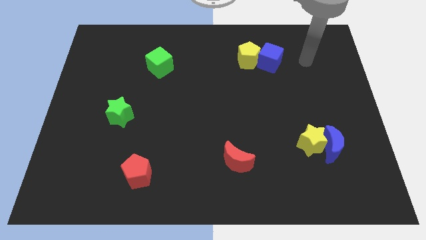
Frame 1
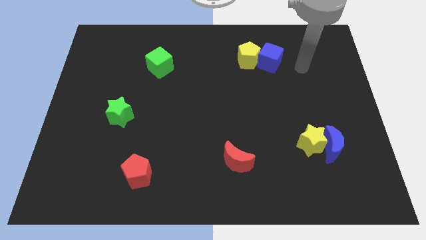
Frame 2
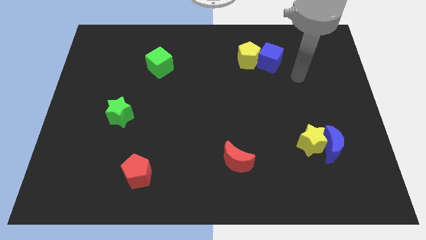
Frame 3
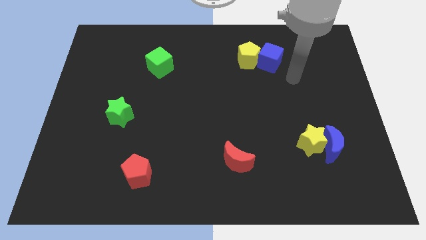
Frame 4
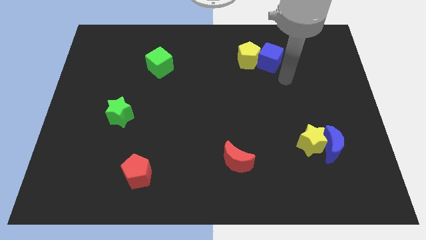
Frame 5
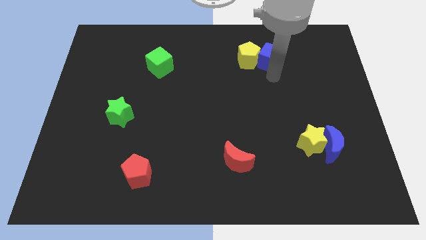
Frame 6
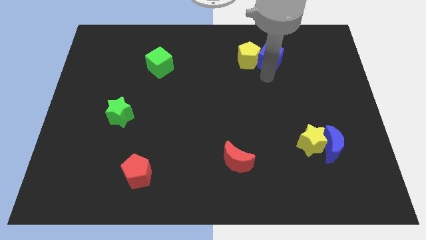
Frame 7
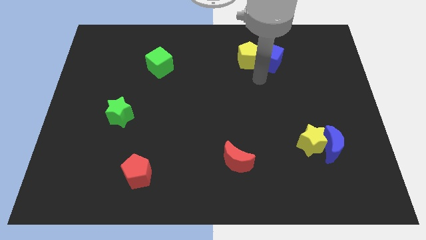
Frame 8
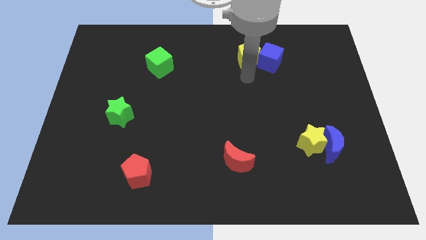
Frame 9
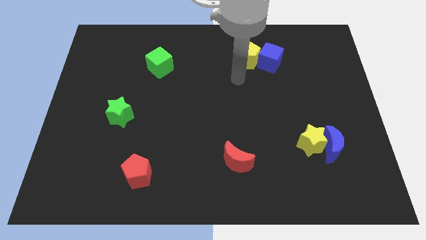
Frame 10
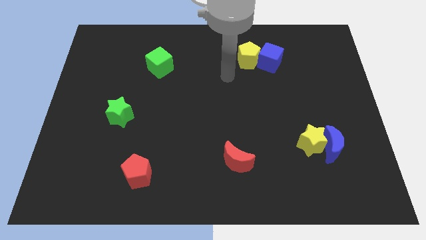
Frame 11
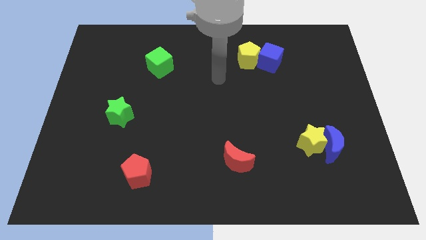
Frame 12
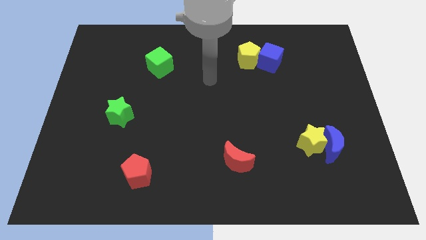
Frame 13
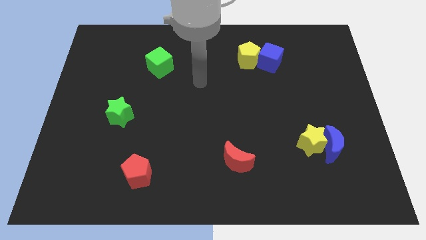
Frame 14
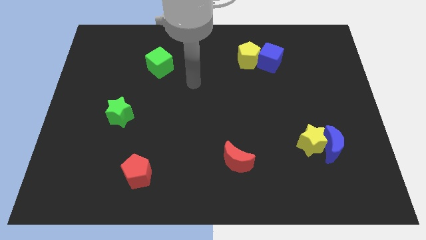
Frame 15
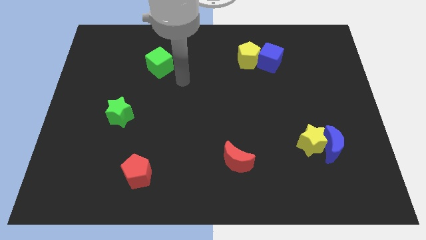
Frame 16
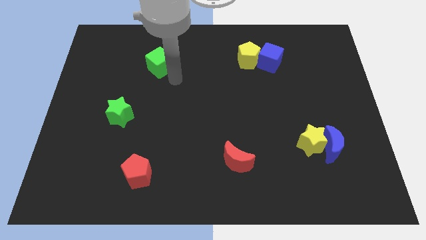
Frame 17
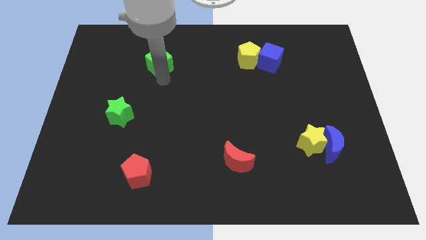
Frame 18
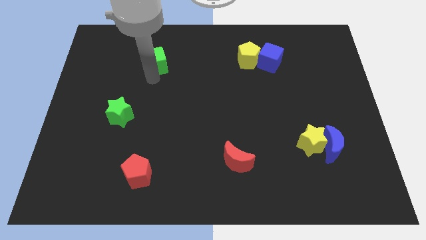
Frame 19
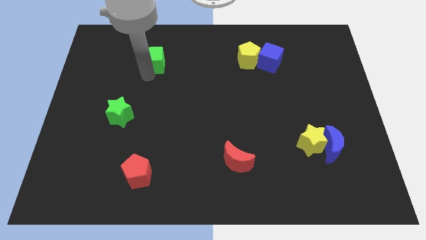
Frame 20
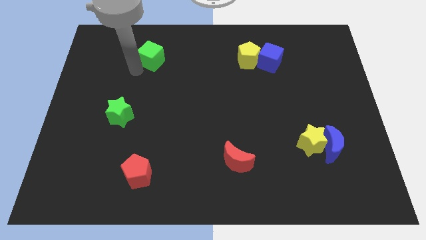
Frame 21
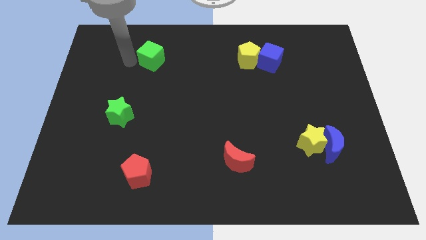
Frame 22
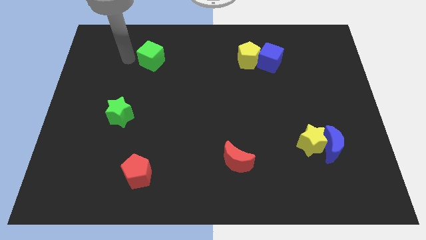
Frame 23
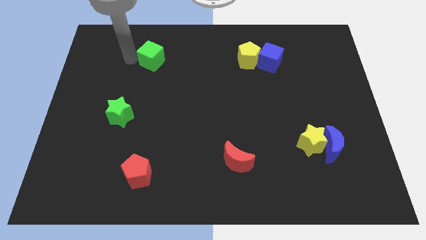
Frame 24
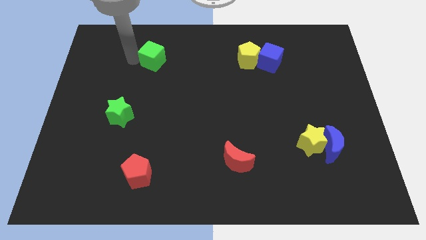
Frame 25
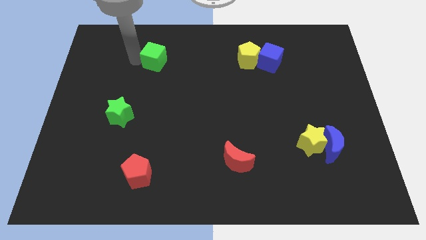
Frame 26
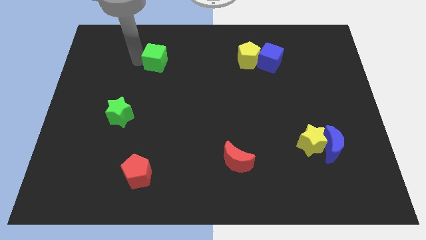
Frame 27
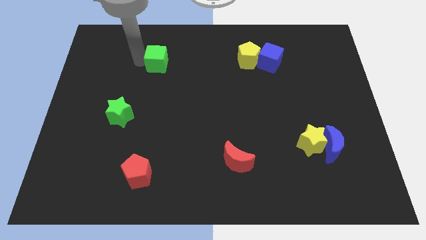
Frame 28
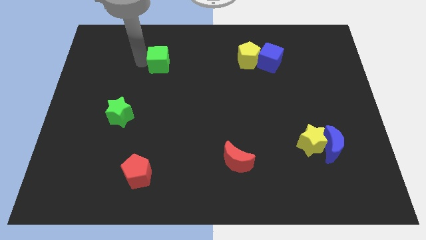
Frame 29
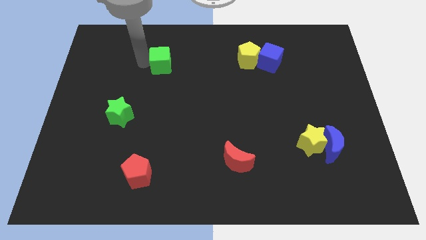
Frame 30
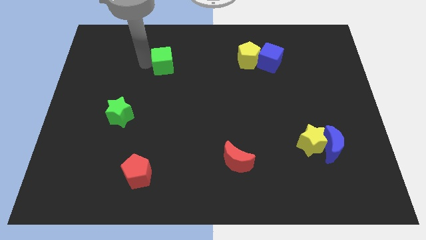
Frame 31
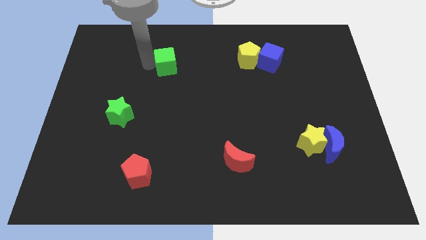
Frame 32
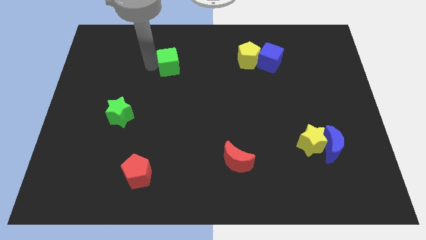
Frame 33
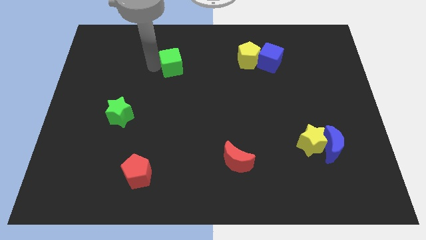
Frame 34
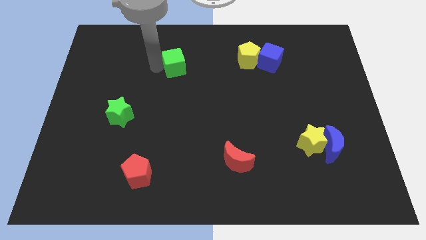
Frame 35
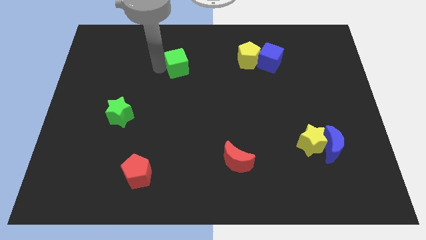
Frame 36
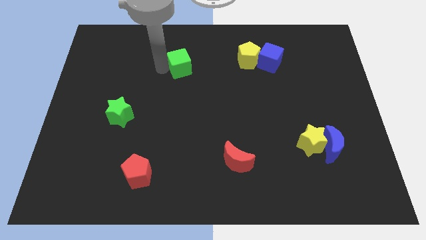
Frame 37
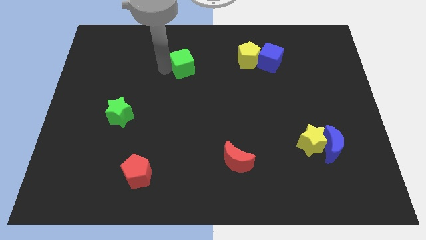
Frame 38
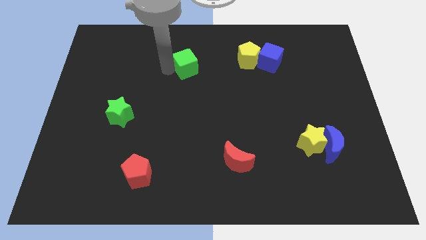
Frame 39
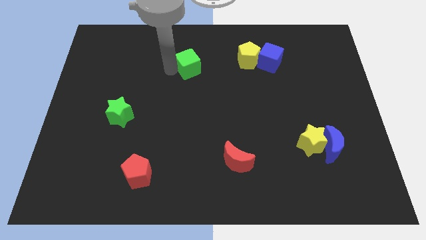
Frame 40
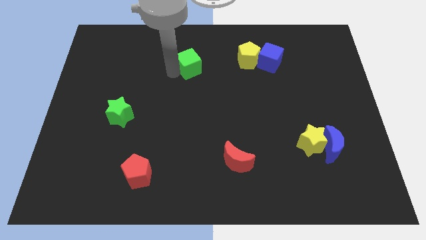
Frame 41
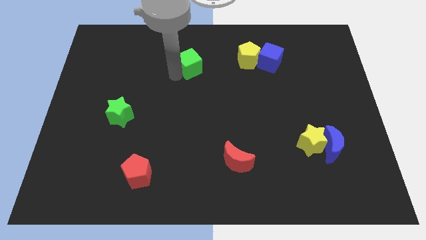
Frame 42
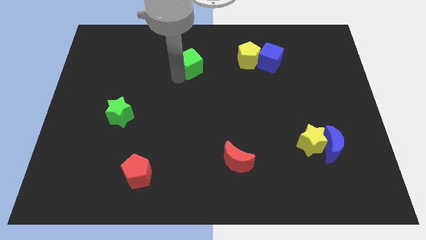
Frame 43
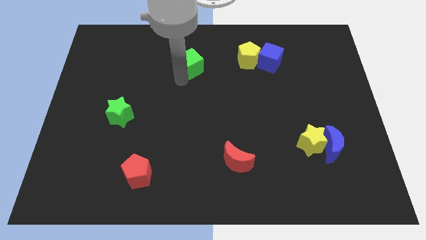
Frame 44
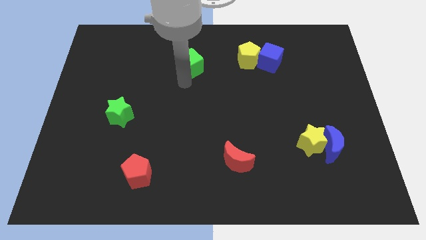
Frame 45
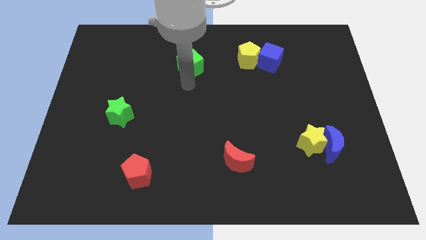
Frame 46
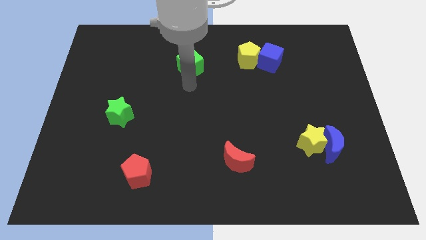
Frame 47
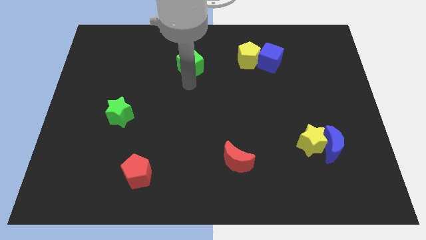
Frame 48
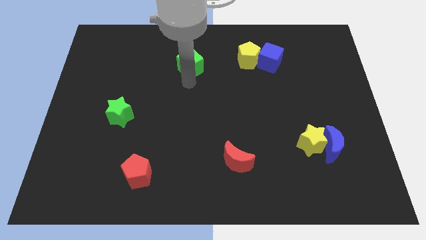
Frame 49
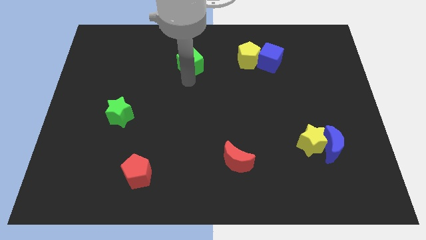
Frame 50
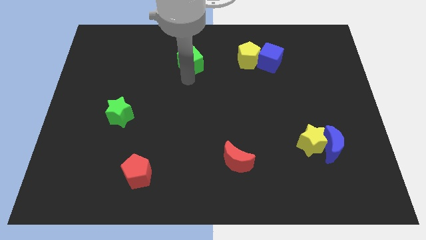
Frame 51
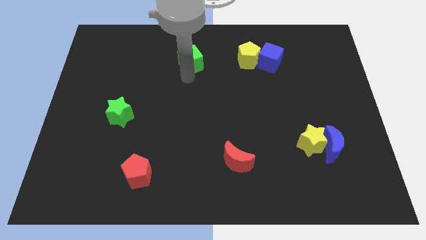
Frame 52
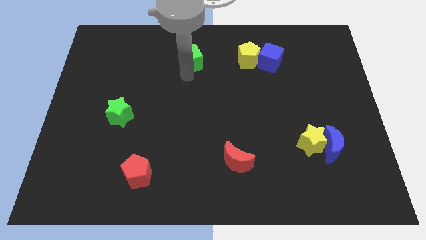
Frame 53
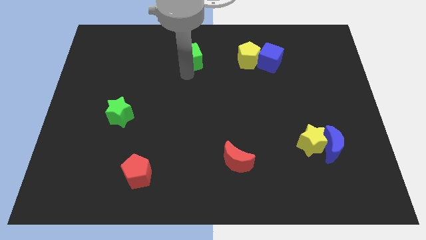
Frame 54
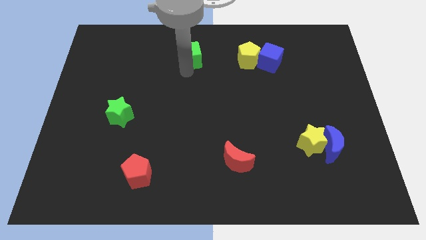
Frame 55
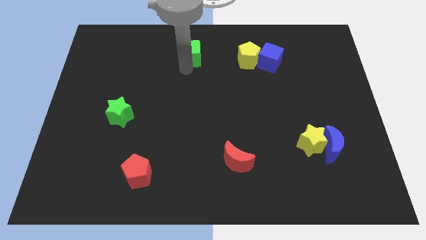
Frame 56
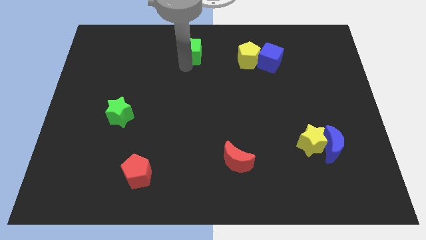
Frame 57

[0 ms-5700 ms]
push the green cube to the towards your base
